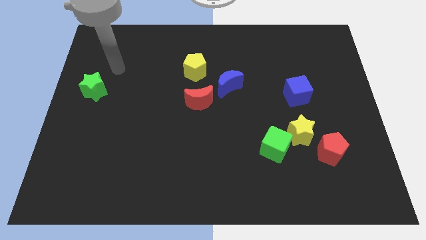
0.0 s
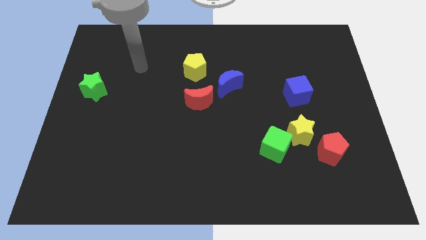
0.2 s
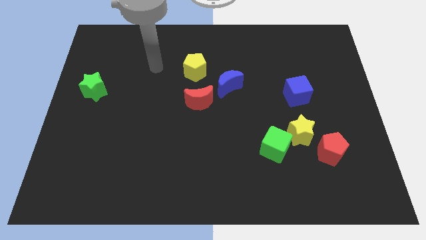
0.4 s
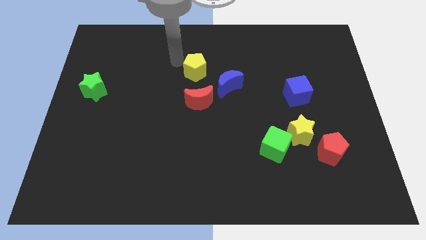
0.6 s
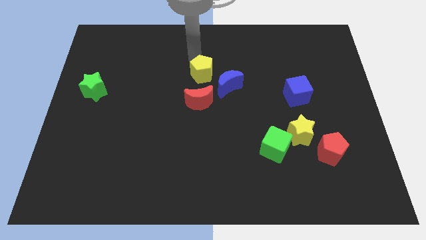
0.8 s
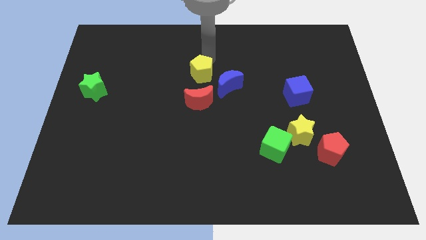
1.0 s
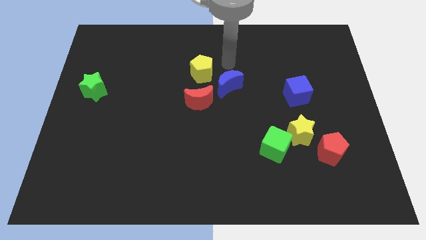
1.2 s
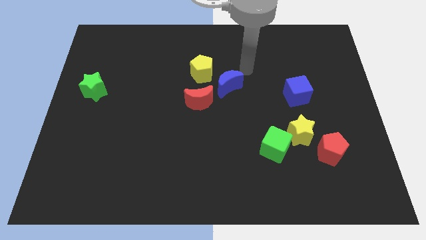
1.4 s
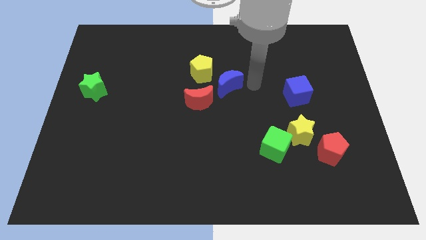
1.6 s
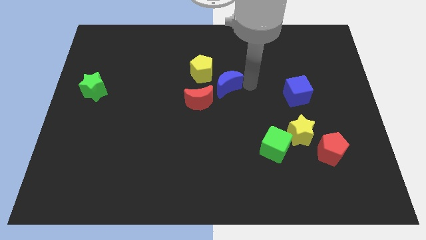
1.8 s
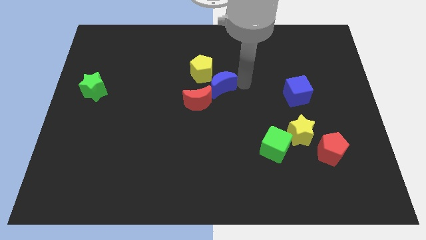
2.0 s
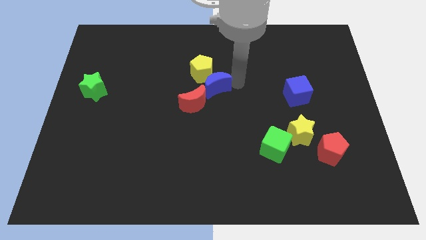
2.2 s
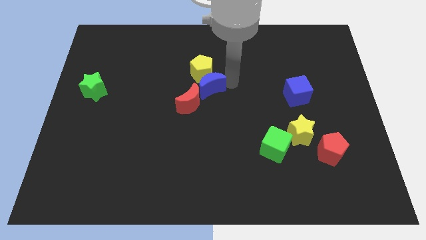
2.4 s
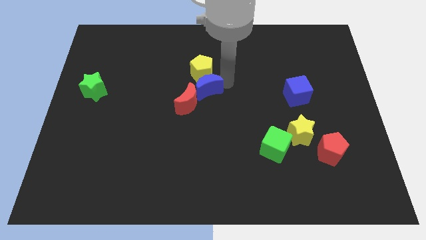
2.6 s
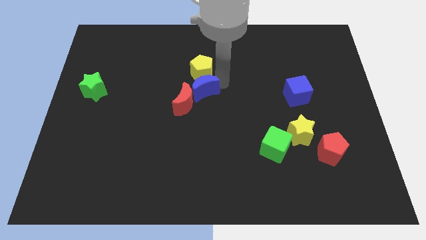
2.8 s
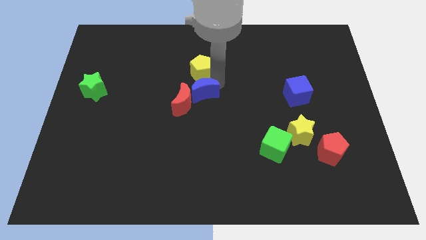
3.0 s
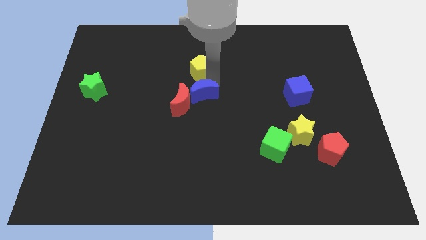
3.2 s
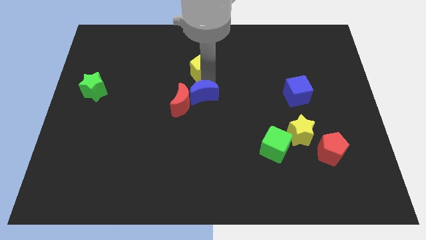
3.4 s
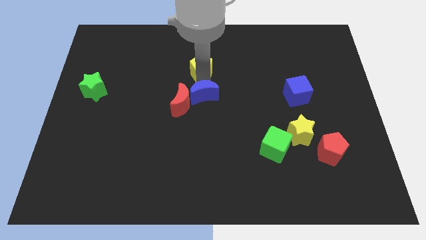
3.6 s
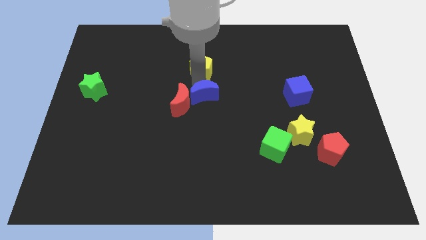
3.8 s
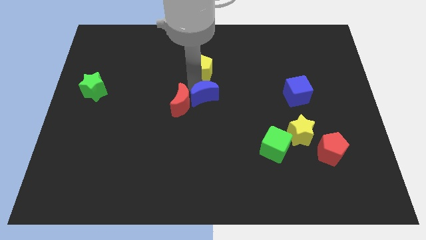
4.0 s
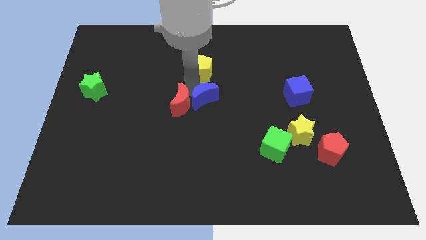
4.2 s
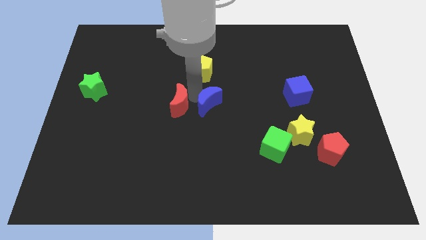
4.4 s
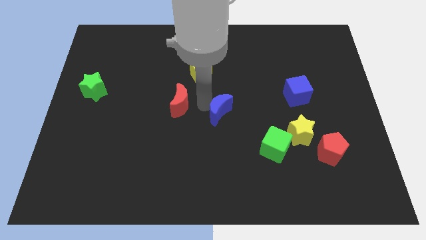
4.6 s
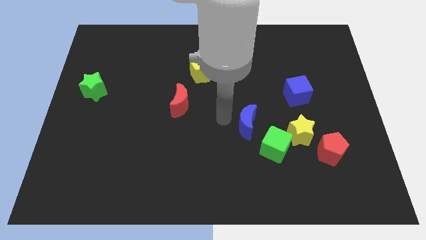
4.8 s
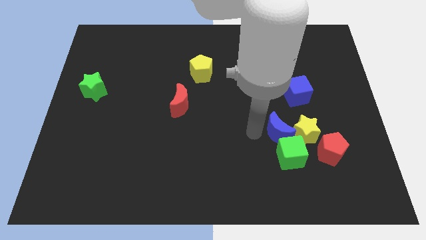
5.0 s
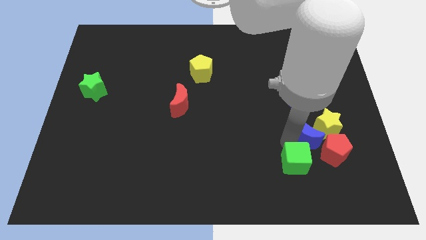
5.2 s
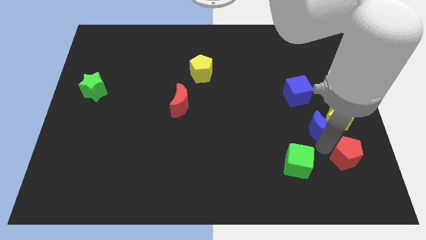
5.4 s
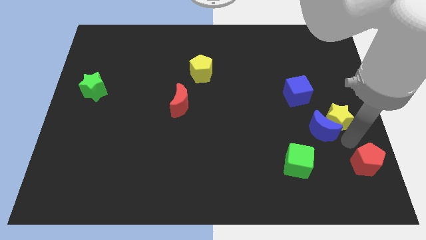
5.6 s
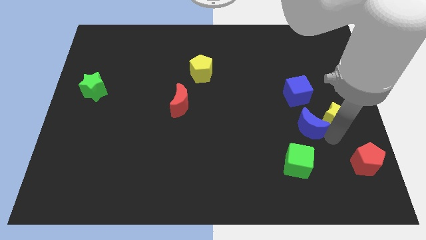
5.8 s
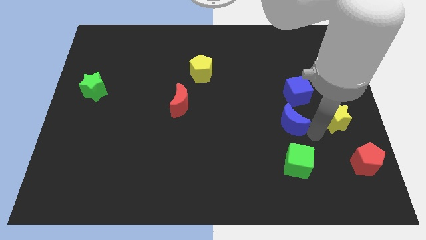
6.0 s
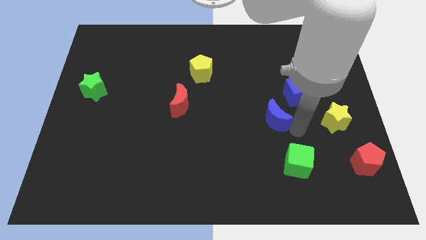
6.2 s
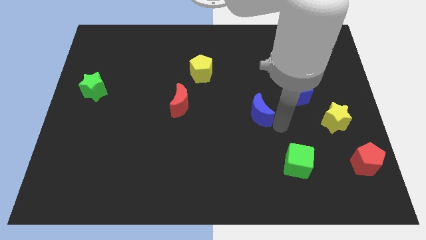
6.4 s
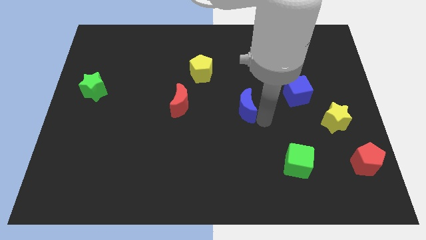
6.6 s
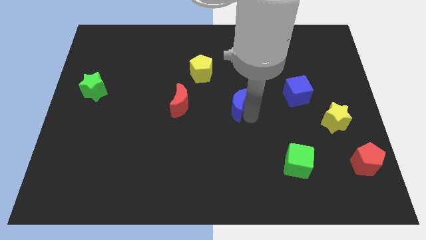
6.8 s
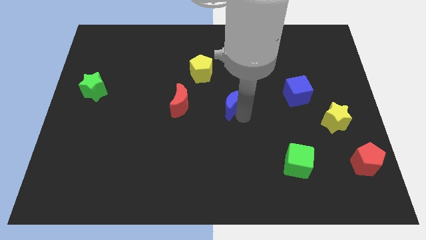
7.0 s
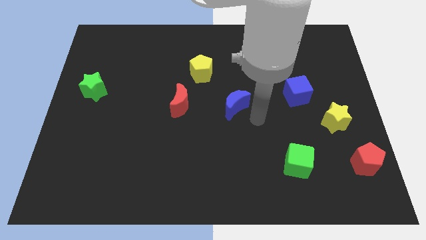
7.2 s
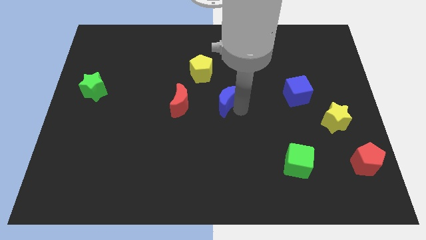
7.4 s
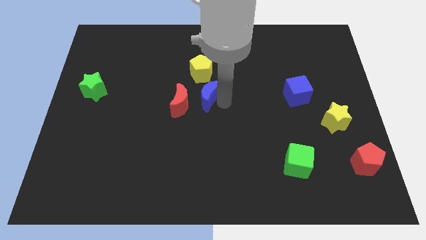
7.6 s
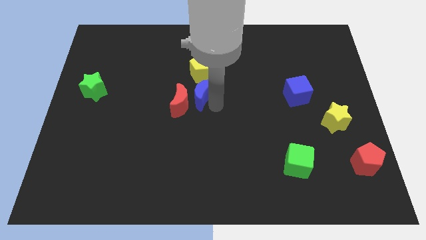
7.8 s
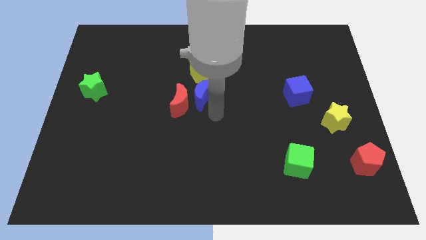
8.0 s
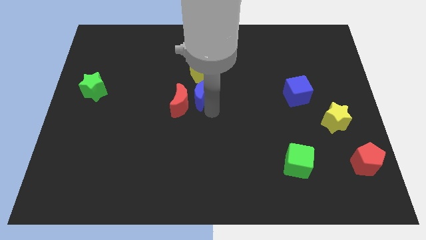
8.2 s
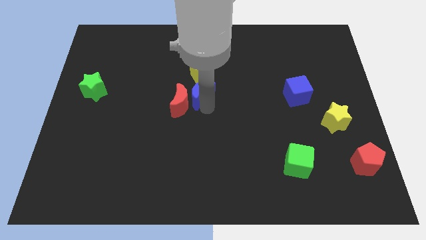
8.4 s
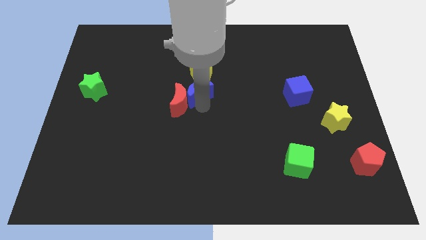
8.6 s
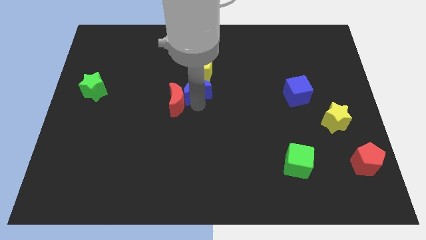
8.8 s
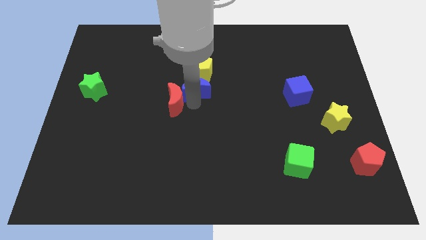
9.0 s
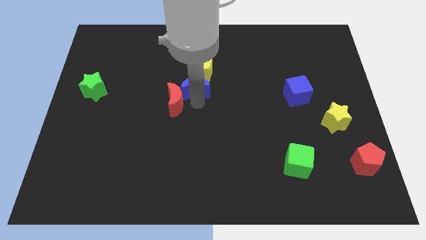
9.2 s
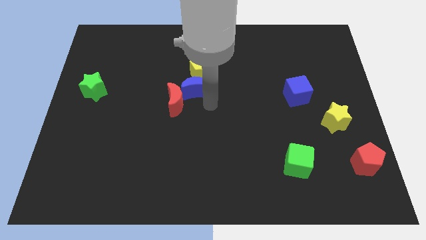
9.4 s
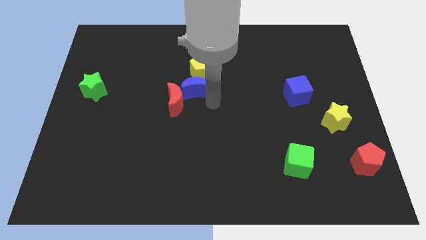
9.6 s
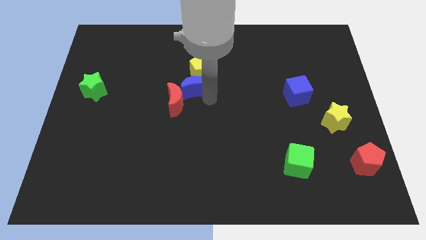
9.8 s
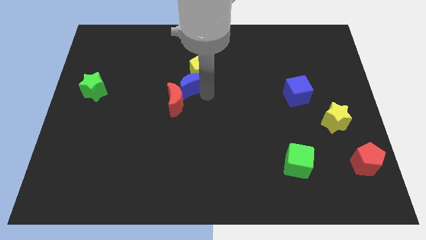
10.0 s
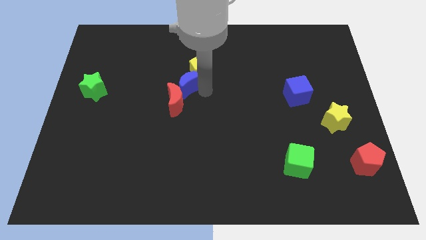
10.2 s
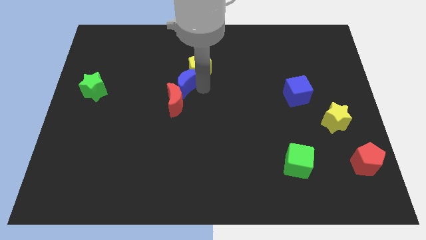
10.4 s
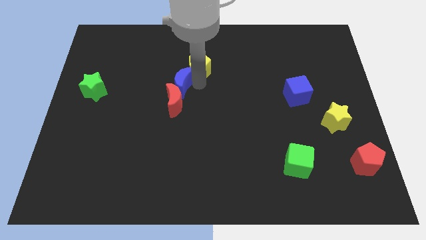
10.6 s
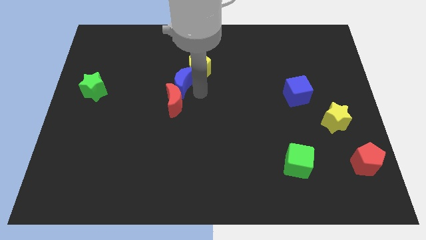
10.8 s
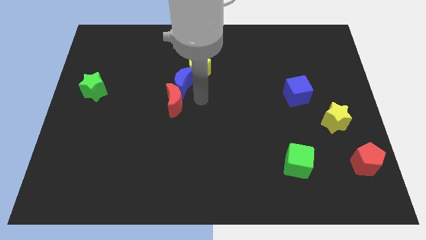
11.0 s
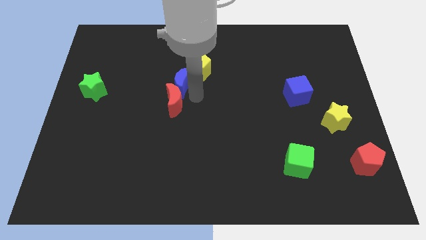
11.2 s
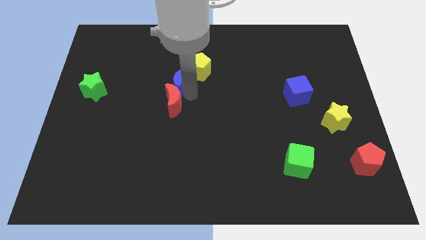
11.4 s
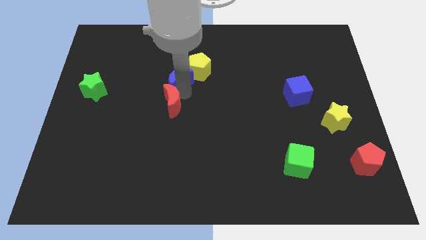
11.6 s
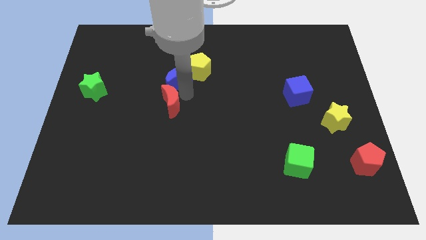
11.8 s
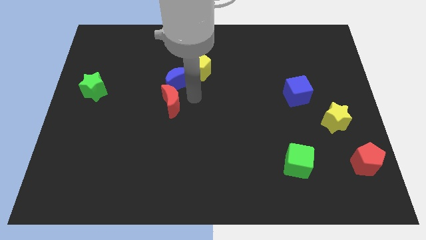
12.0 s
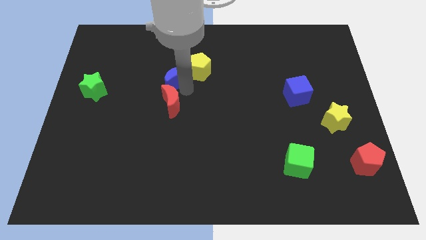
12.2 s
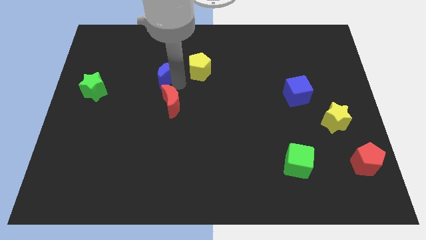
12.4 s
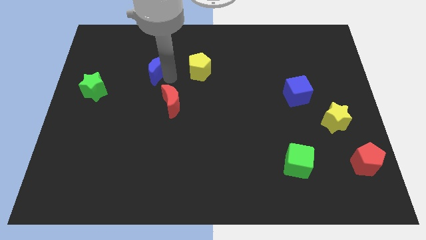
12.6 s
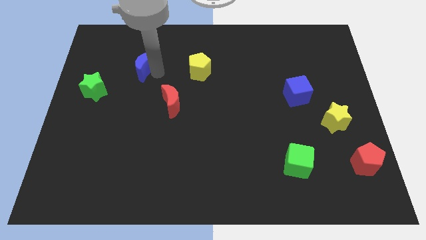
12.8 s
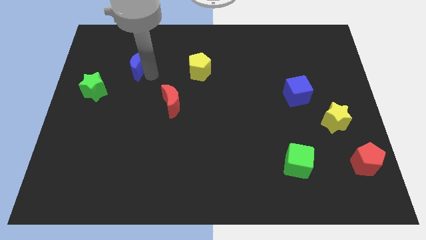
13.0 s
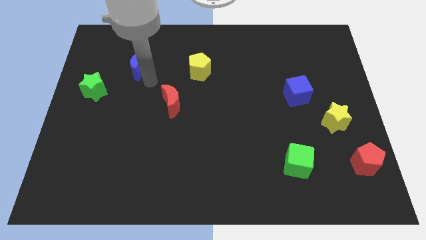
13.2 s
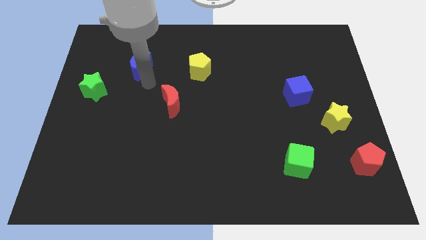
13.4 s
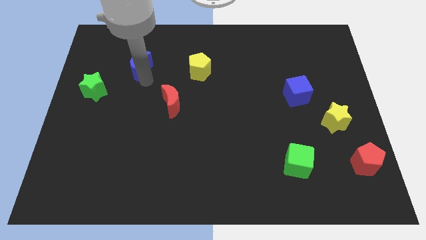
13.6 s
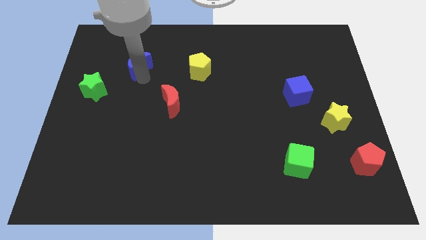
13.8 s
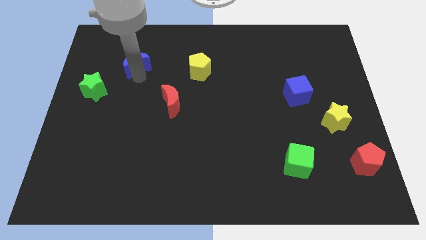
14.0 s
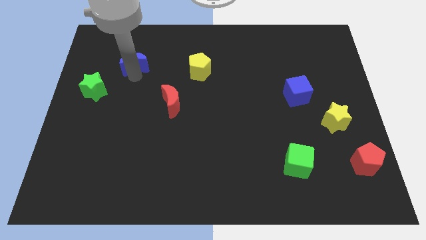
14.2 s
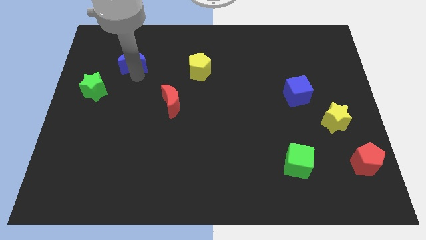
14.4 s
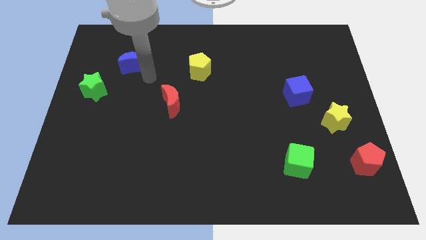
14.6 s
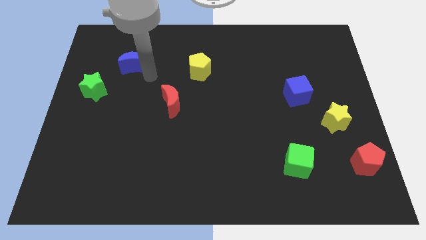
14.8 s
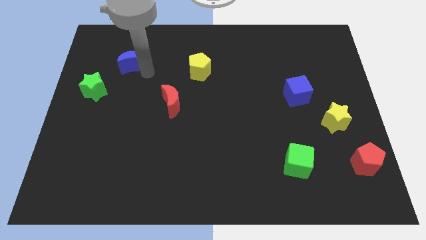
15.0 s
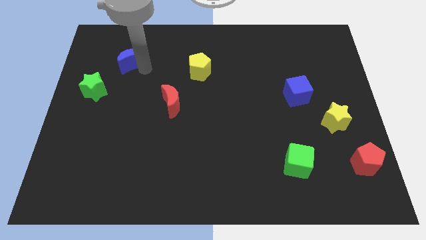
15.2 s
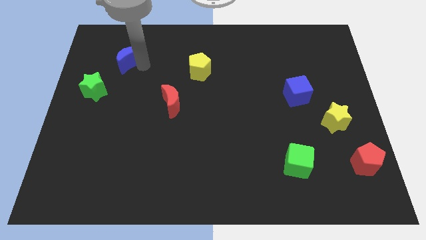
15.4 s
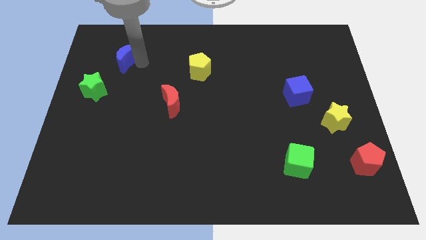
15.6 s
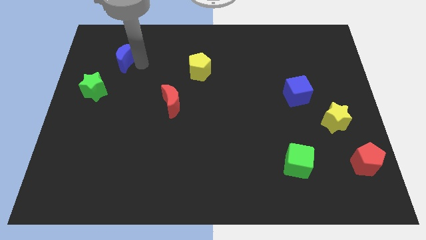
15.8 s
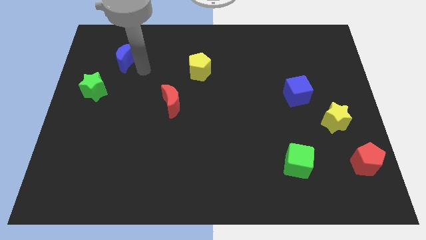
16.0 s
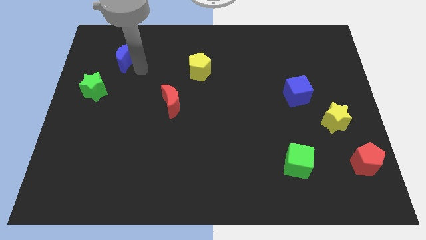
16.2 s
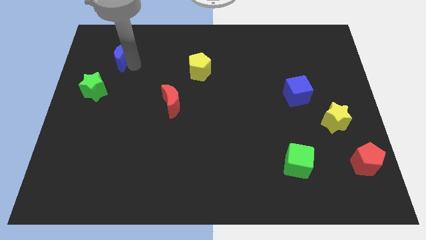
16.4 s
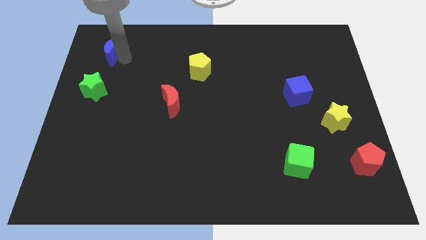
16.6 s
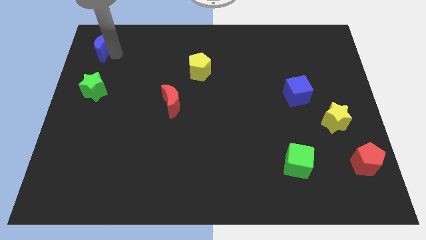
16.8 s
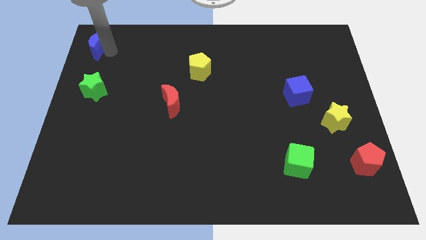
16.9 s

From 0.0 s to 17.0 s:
put the blue moon to the top left corner
